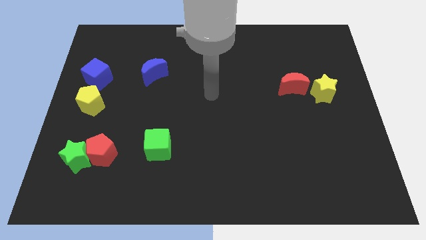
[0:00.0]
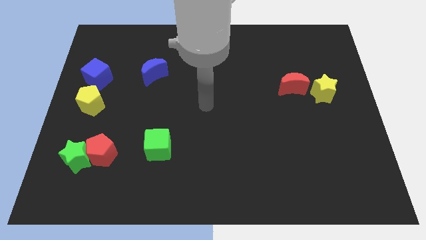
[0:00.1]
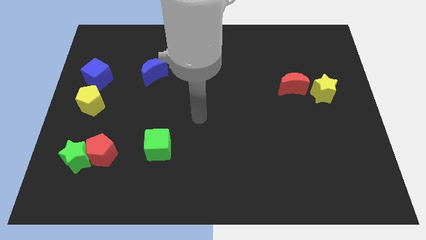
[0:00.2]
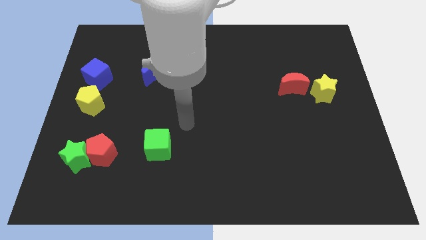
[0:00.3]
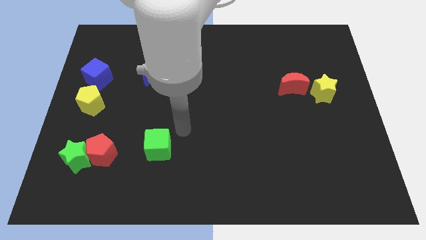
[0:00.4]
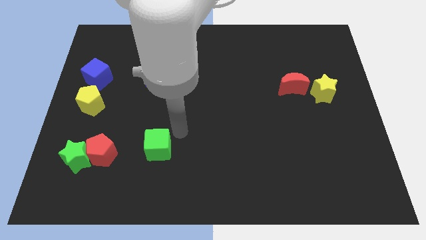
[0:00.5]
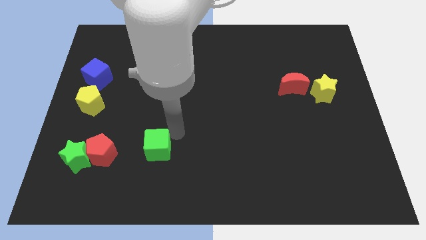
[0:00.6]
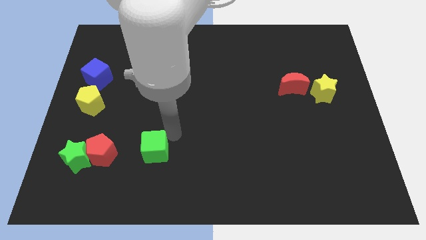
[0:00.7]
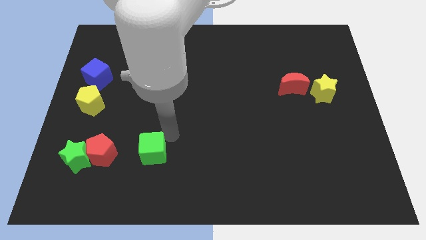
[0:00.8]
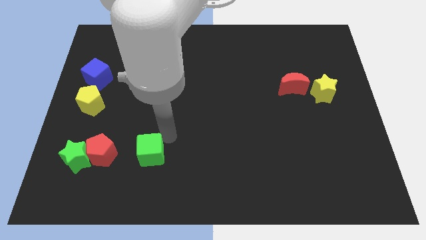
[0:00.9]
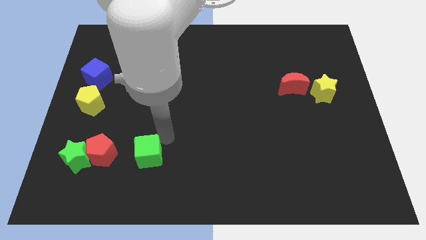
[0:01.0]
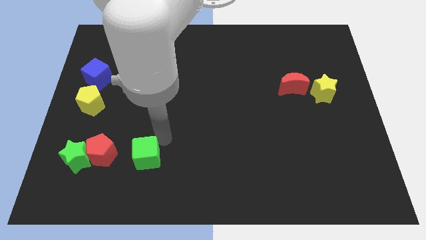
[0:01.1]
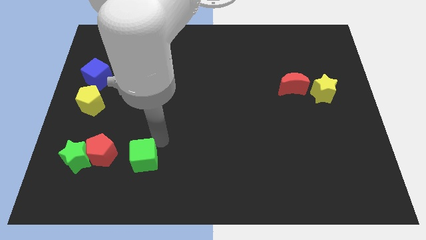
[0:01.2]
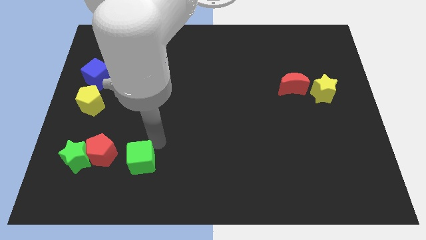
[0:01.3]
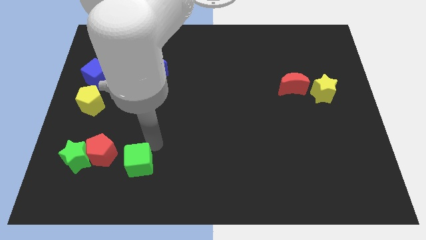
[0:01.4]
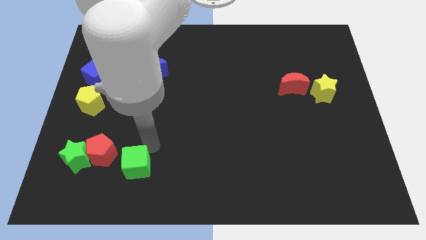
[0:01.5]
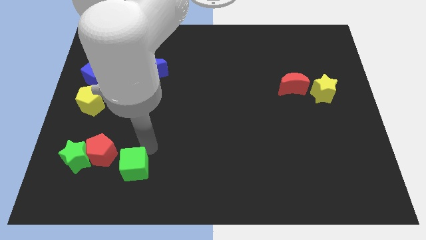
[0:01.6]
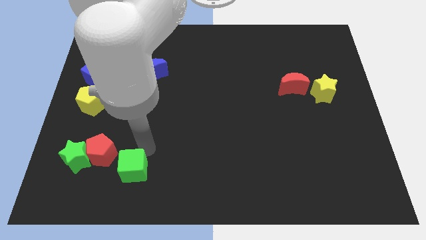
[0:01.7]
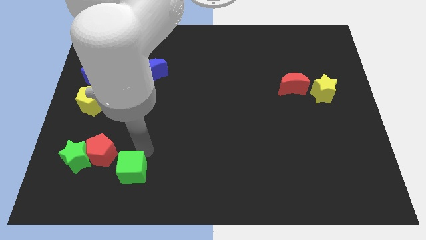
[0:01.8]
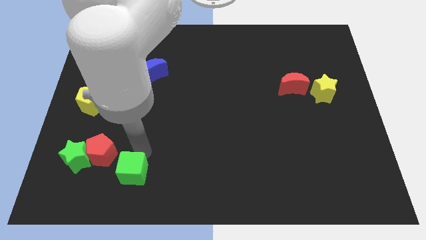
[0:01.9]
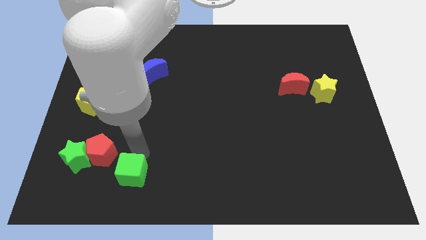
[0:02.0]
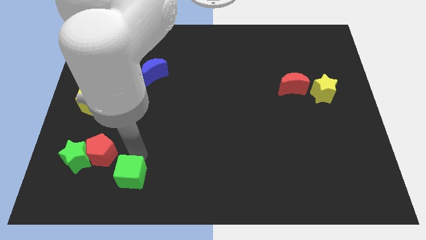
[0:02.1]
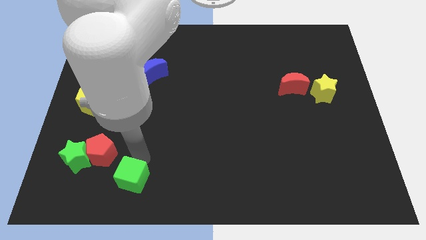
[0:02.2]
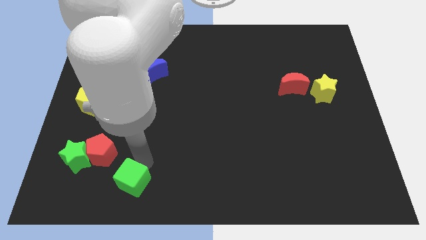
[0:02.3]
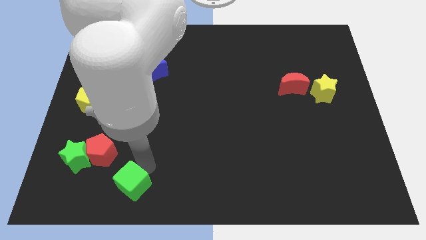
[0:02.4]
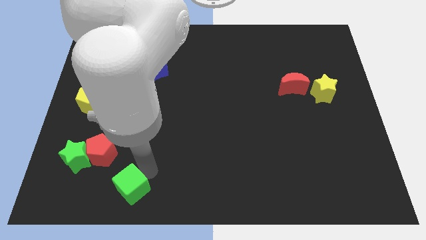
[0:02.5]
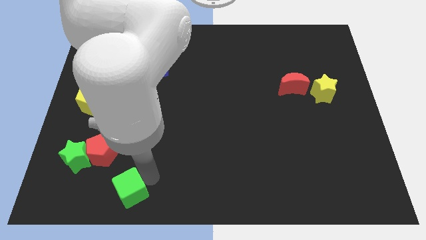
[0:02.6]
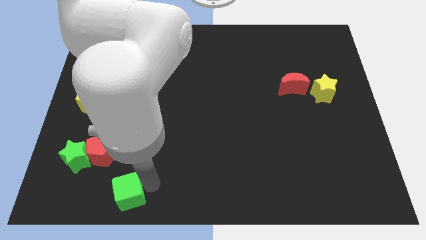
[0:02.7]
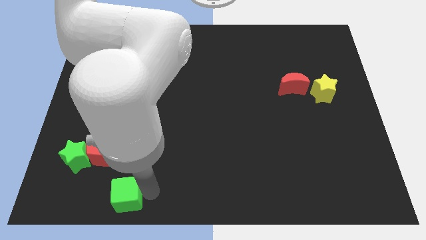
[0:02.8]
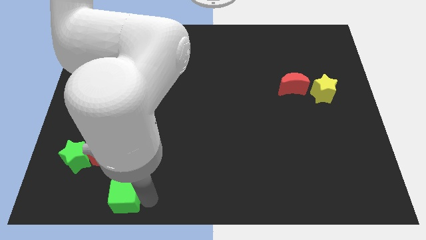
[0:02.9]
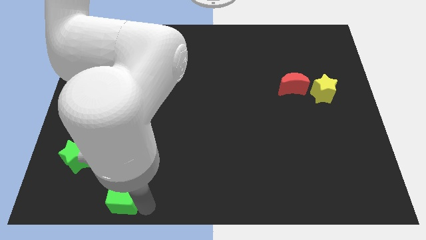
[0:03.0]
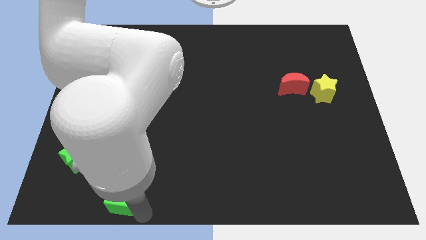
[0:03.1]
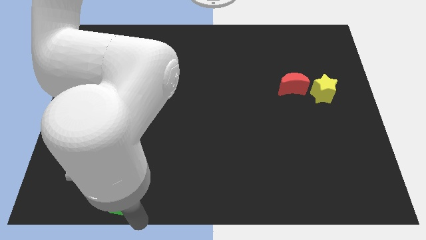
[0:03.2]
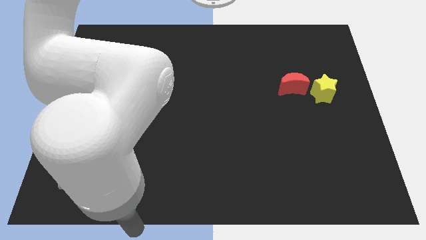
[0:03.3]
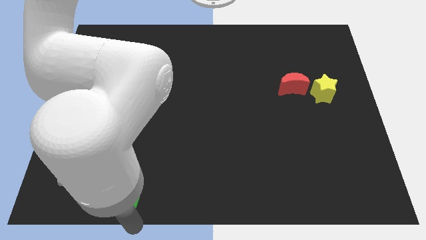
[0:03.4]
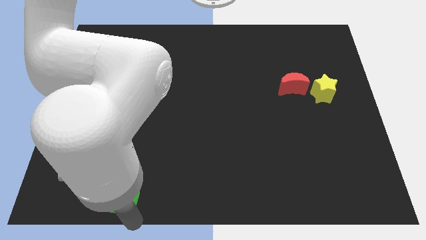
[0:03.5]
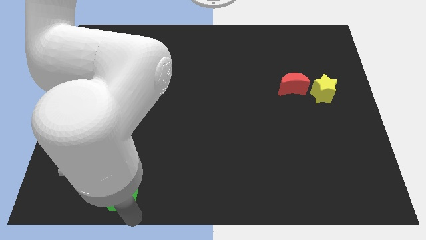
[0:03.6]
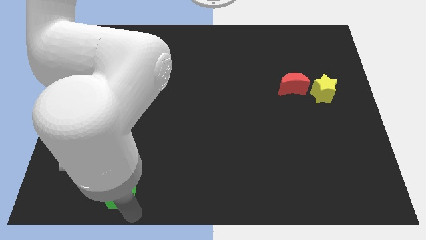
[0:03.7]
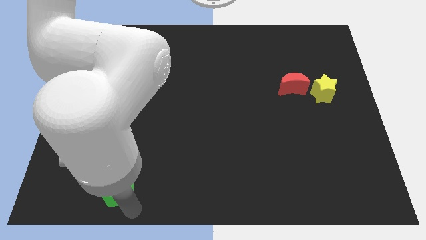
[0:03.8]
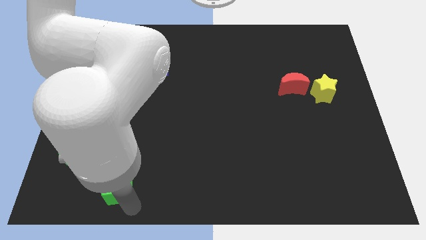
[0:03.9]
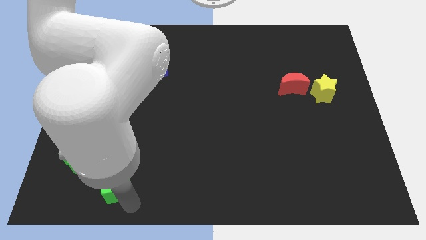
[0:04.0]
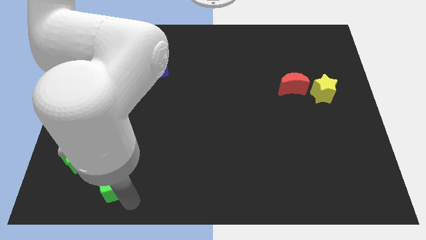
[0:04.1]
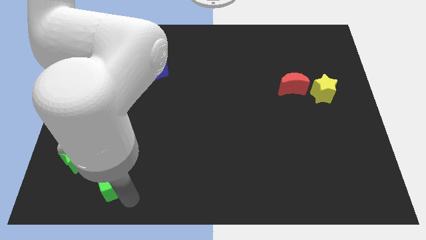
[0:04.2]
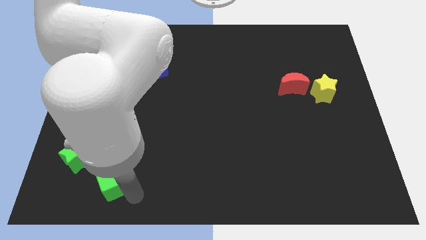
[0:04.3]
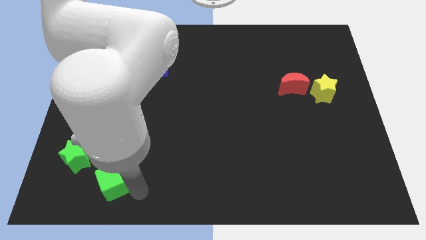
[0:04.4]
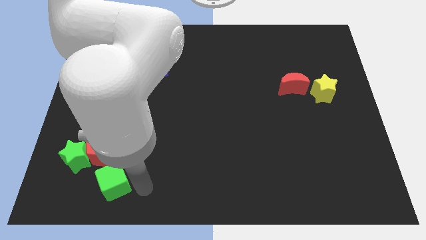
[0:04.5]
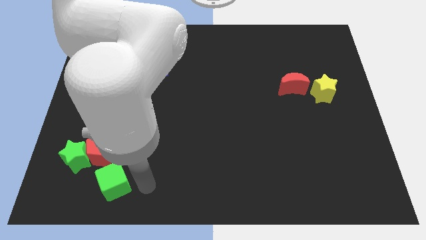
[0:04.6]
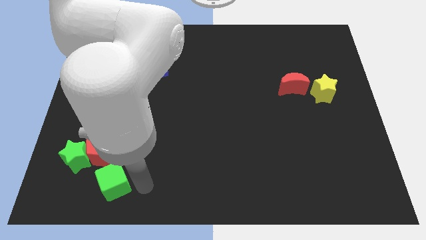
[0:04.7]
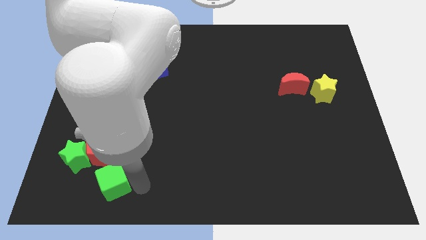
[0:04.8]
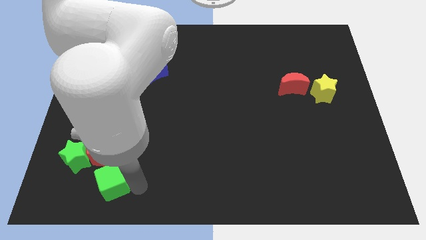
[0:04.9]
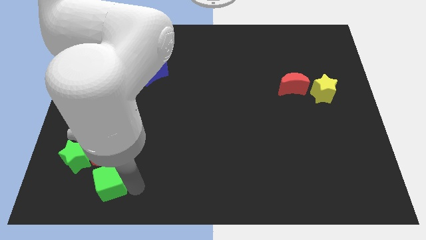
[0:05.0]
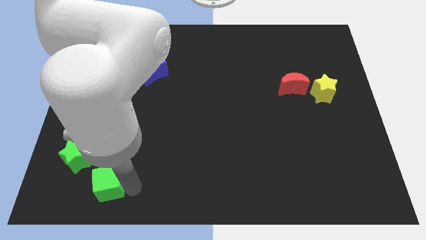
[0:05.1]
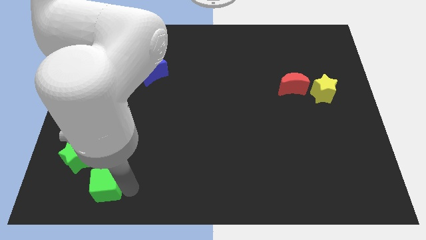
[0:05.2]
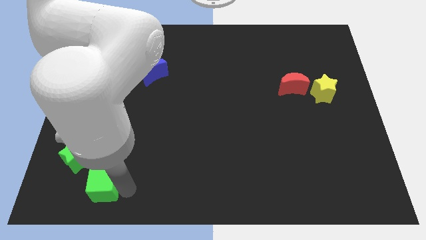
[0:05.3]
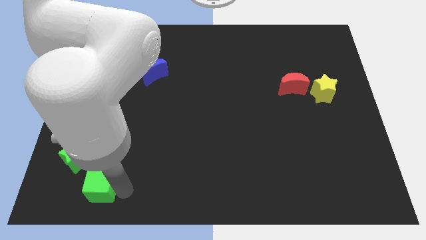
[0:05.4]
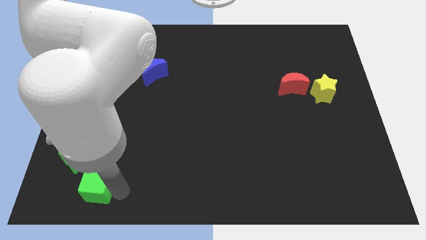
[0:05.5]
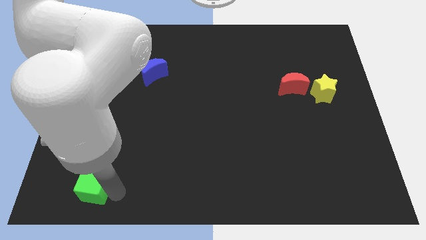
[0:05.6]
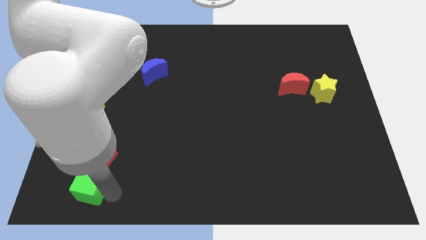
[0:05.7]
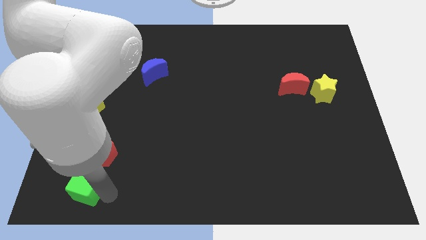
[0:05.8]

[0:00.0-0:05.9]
slide the green cube to the bottom left of the red pentagon
